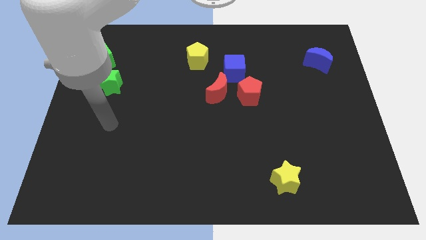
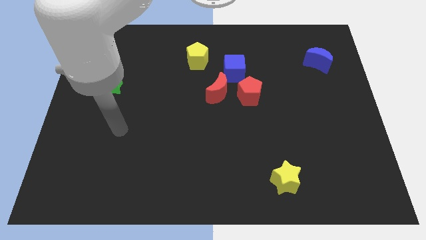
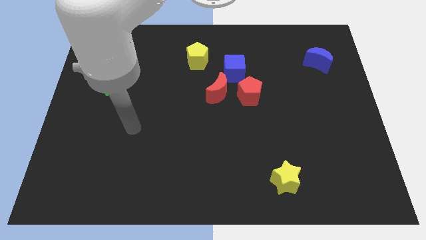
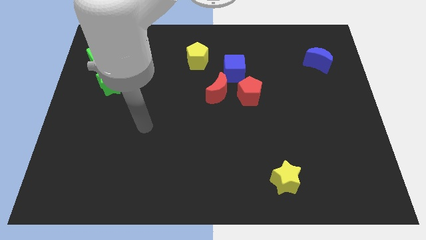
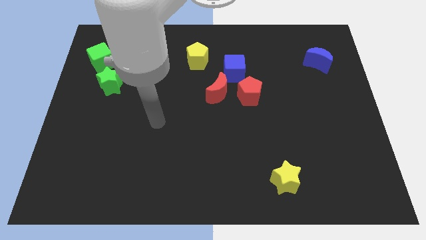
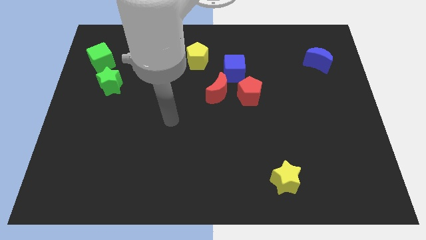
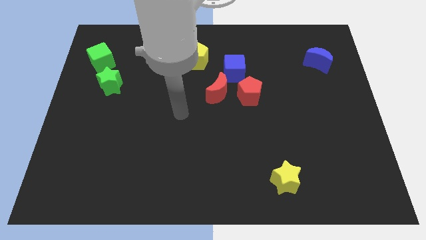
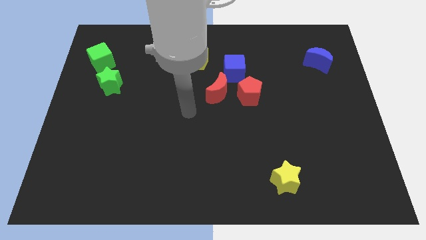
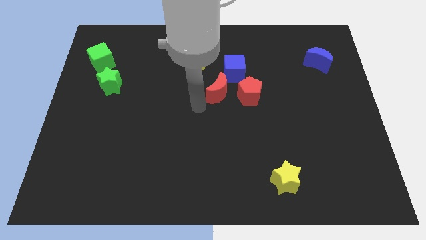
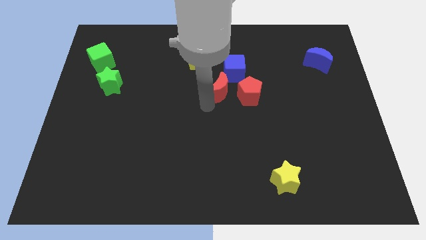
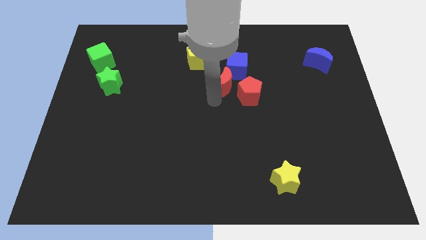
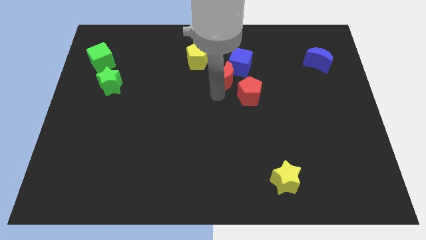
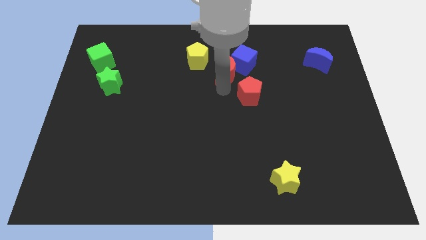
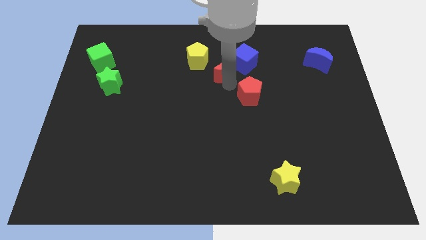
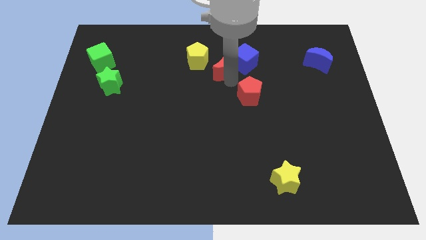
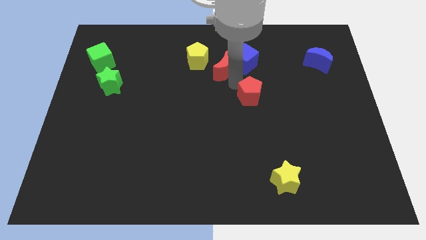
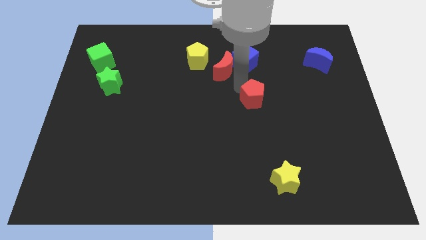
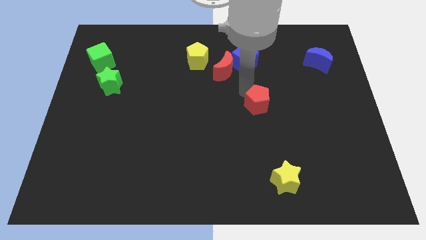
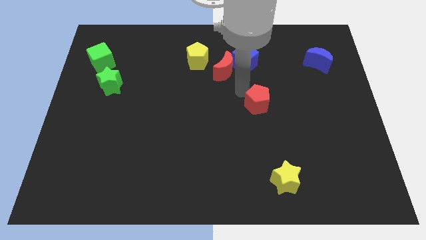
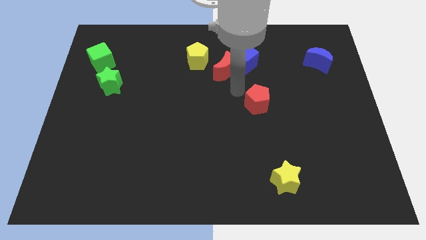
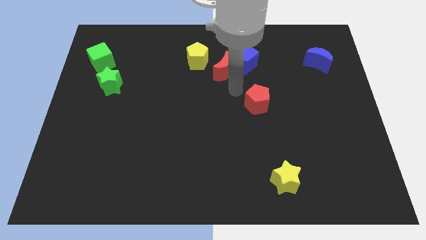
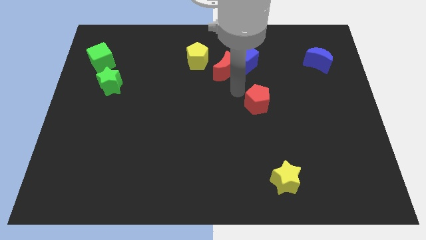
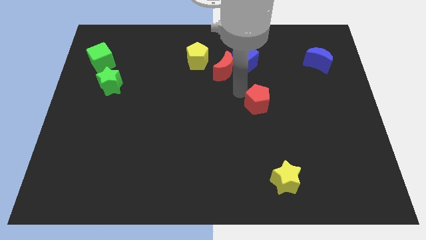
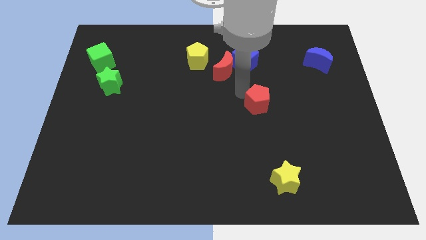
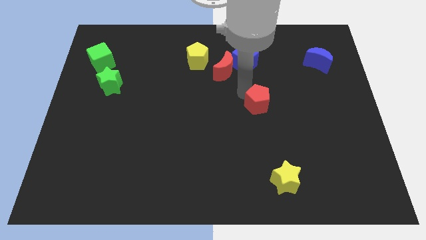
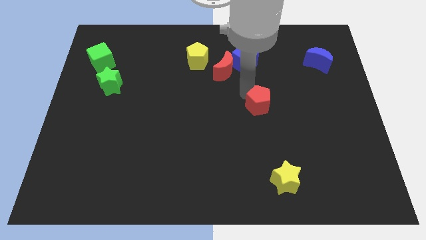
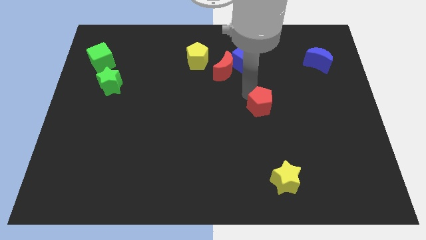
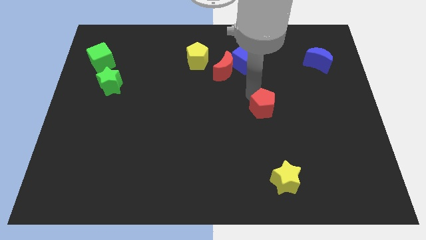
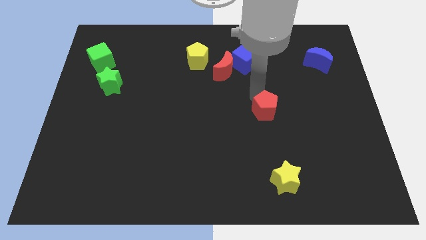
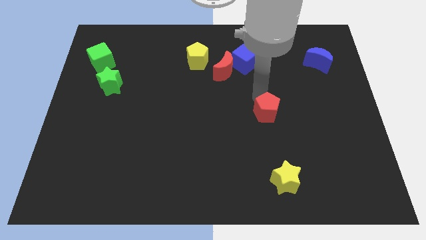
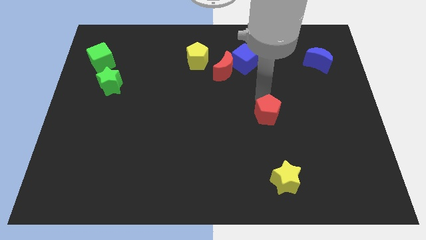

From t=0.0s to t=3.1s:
push the red pentagon down and to the right a little bit

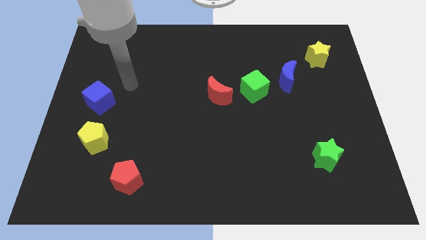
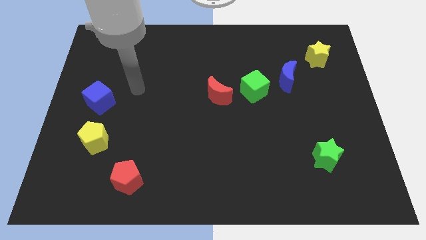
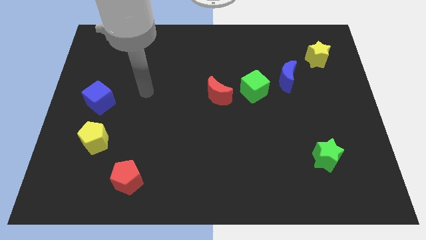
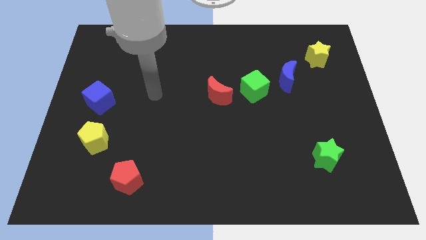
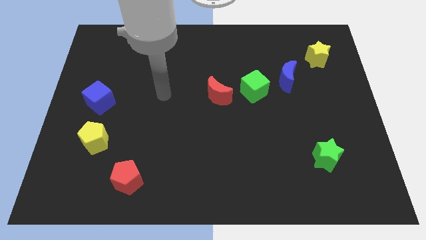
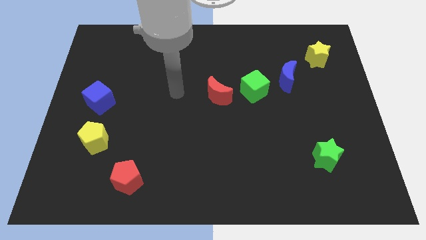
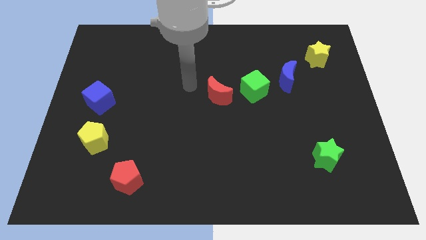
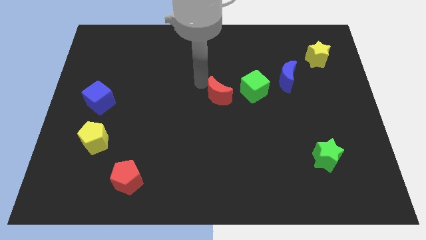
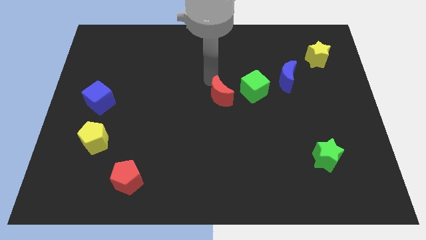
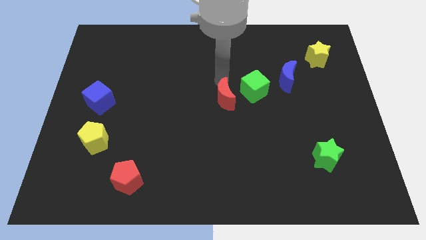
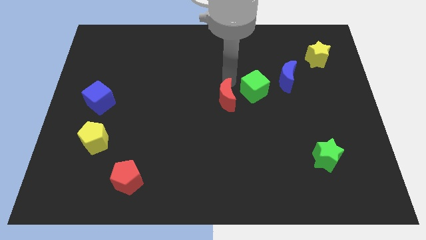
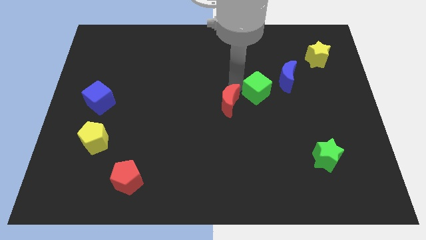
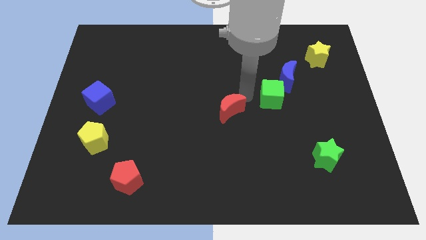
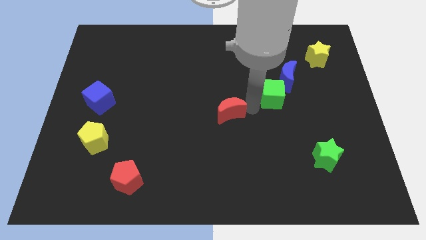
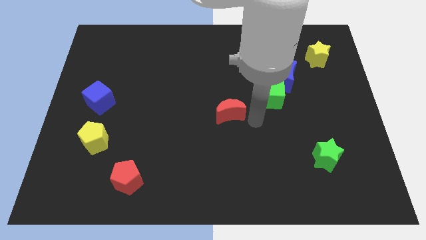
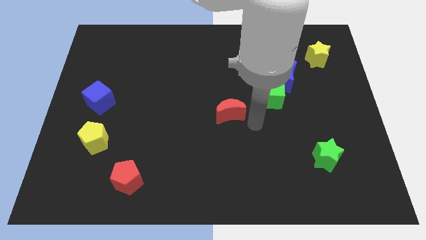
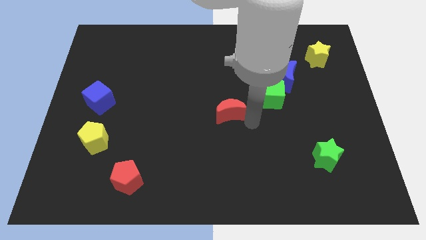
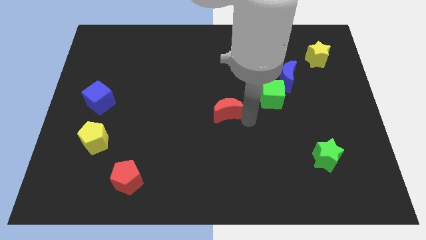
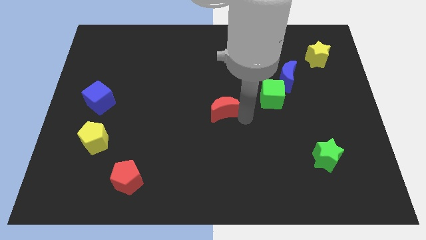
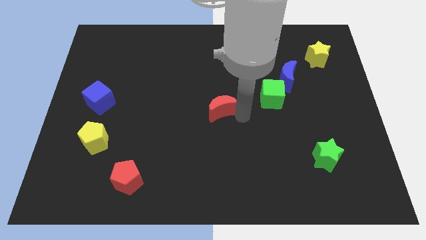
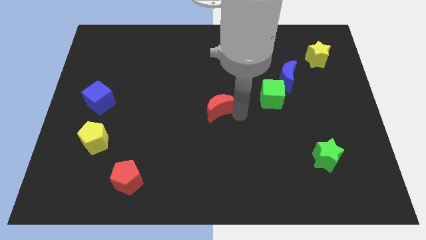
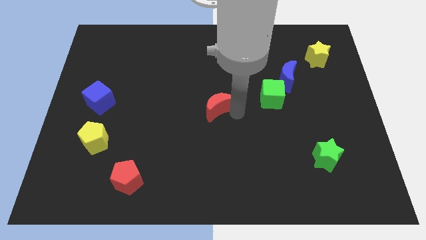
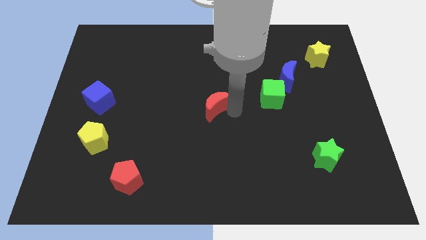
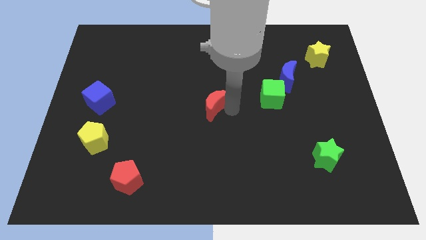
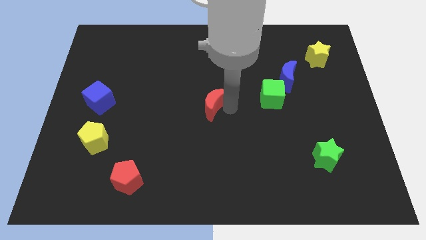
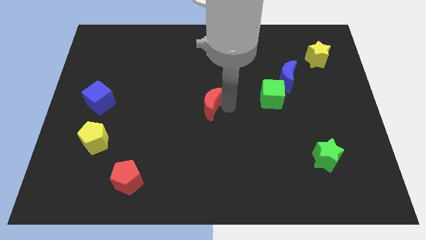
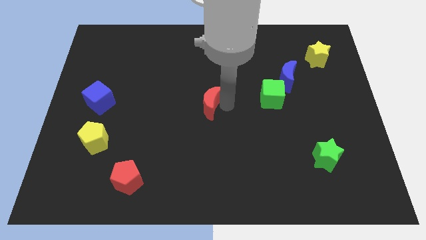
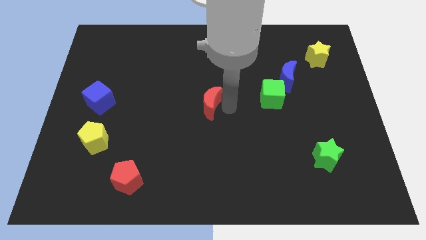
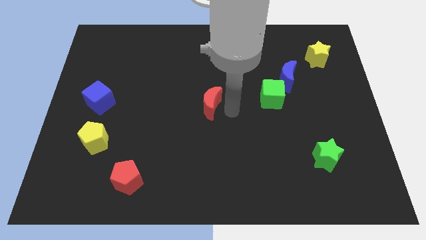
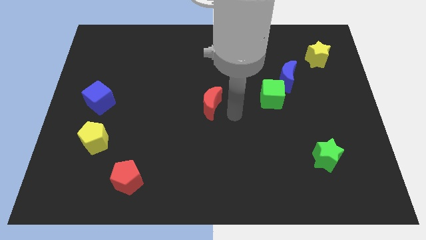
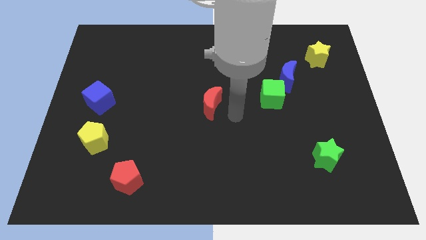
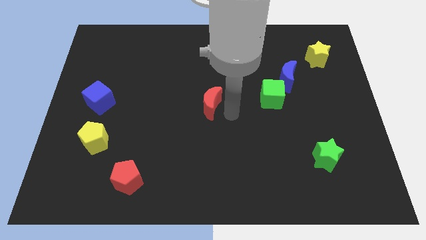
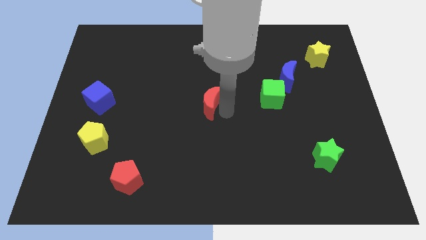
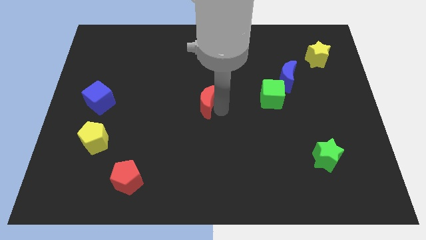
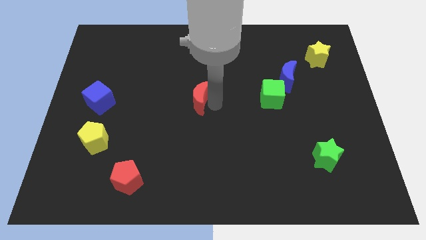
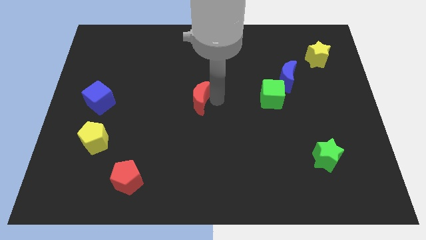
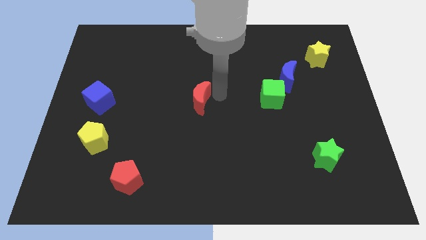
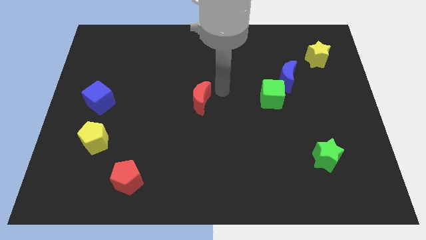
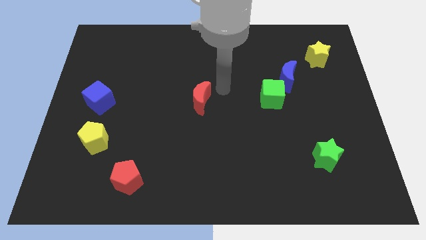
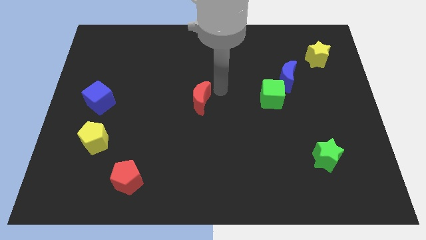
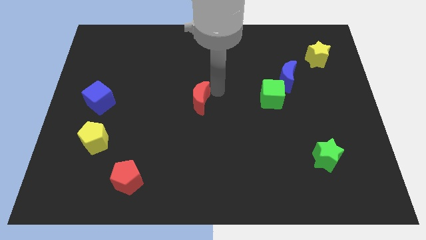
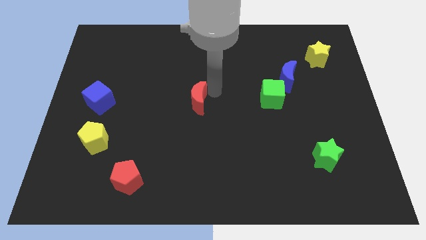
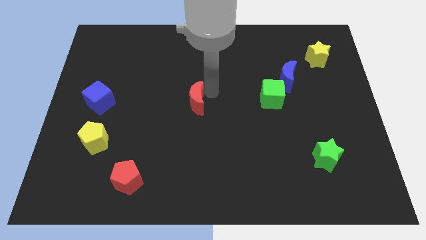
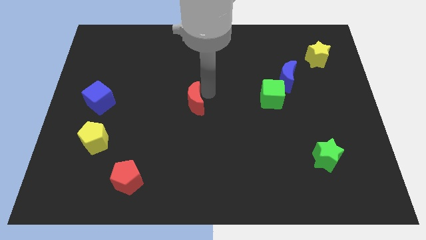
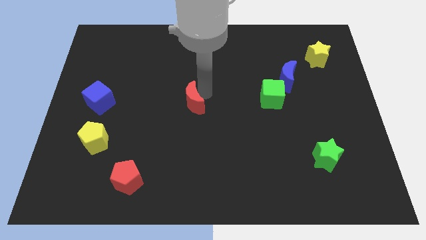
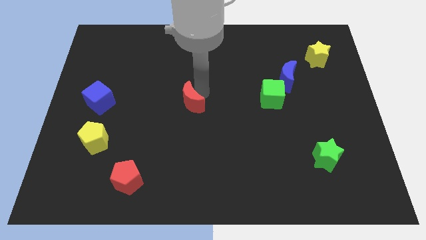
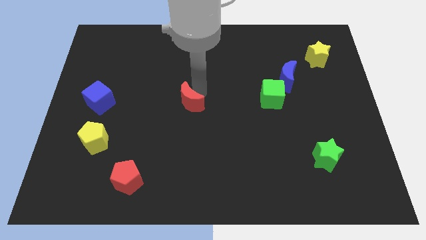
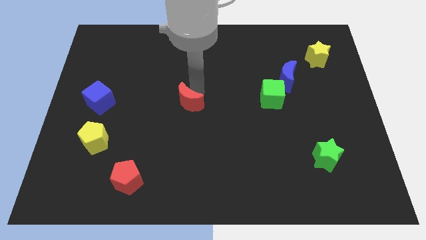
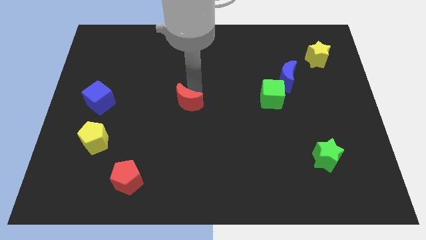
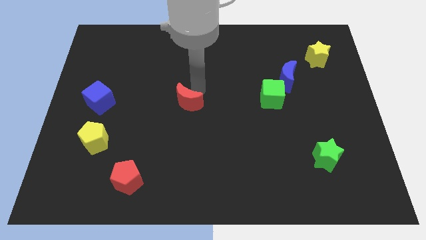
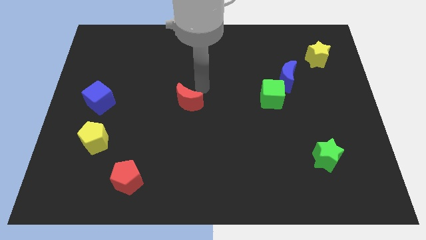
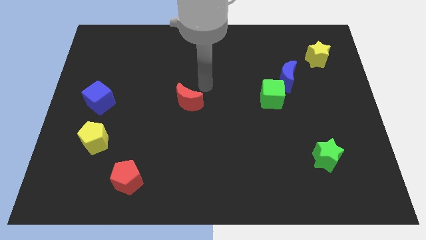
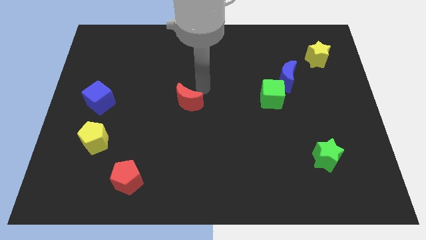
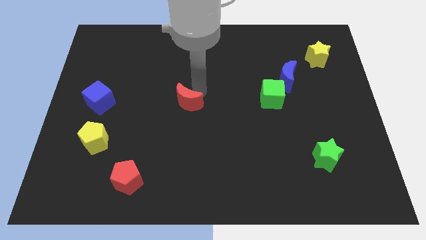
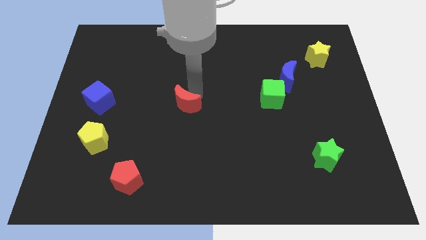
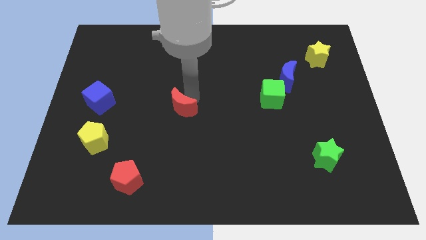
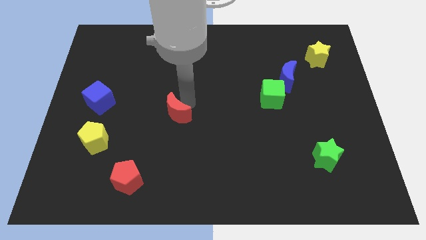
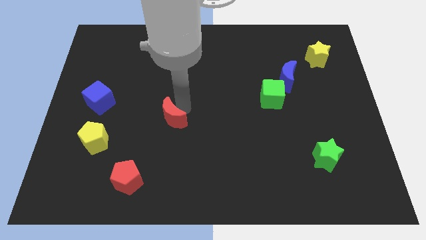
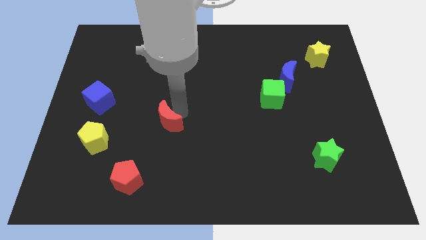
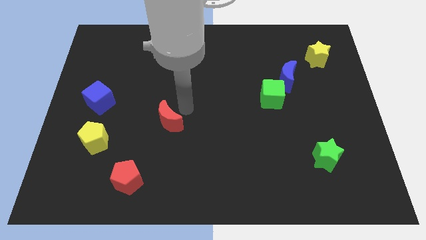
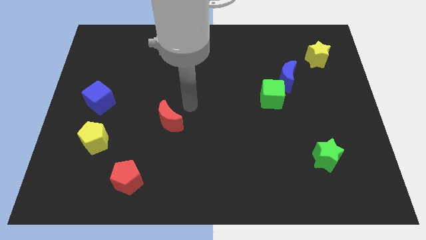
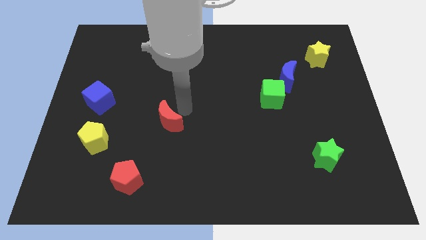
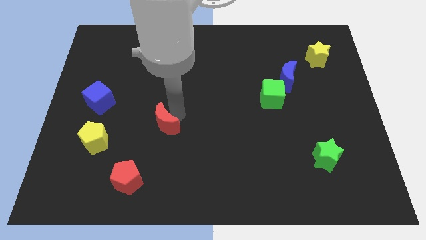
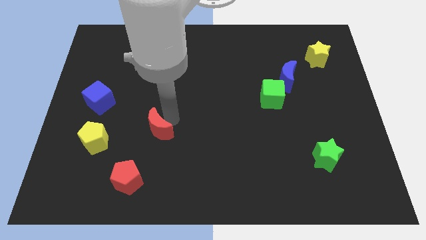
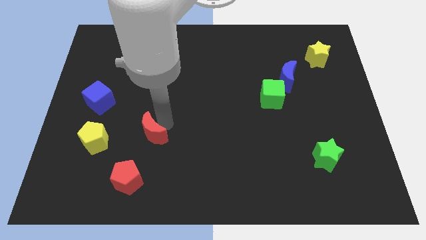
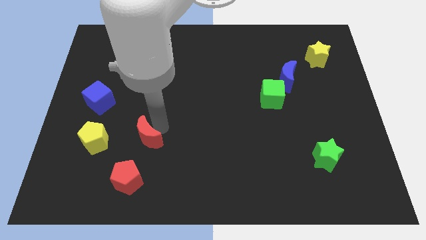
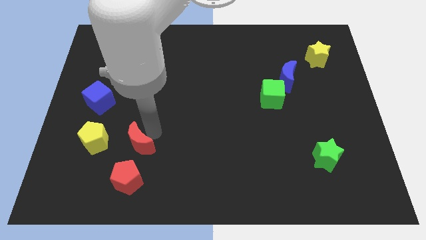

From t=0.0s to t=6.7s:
push the red moon diagonally down and to the left
